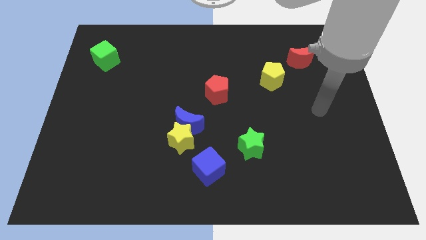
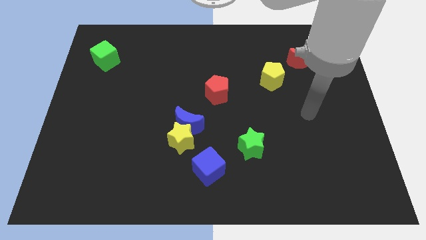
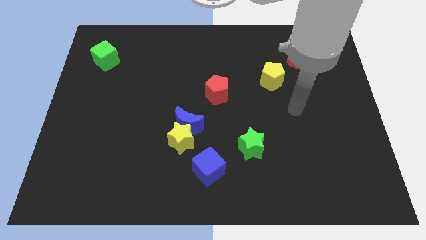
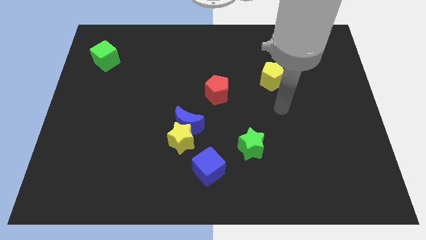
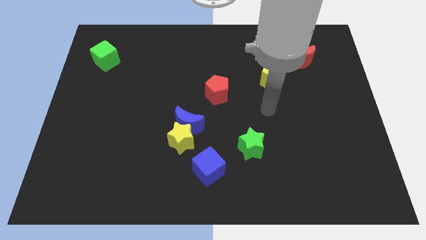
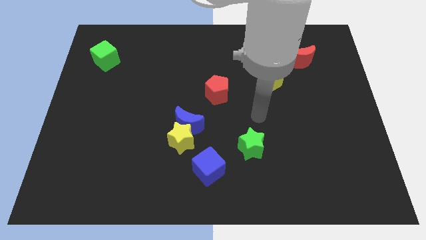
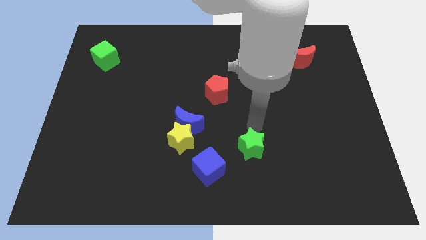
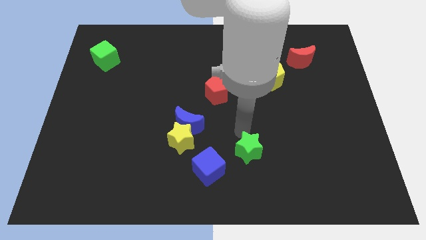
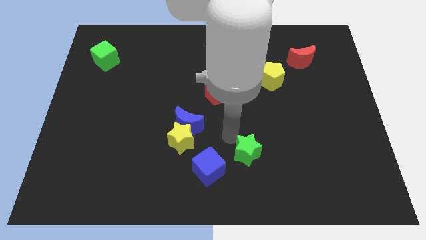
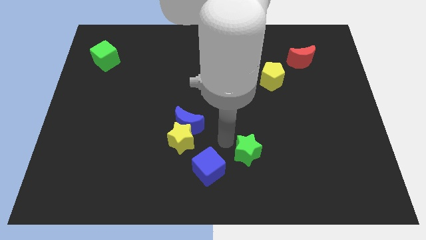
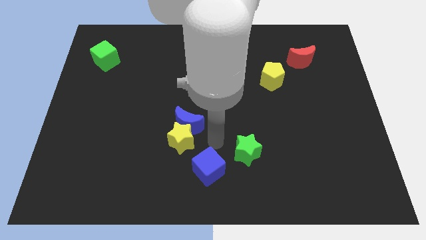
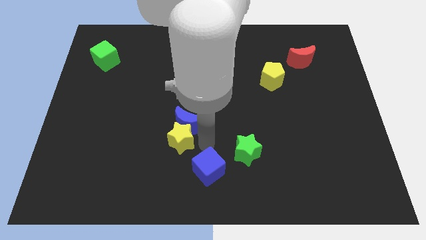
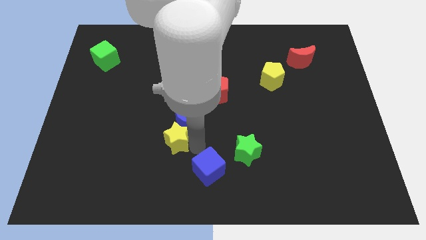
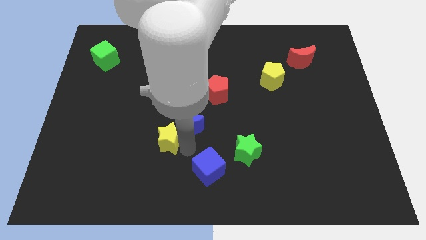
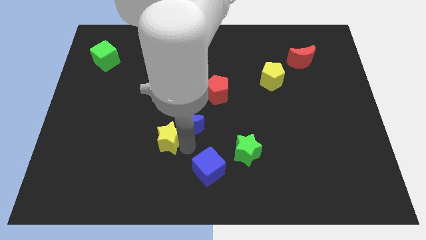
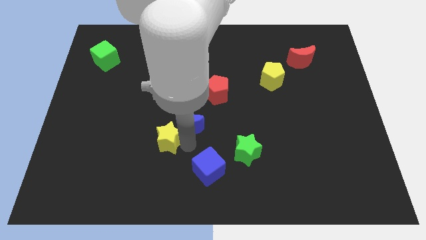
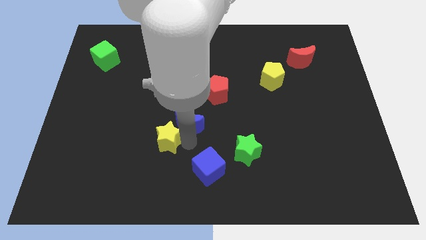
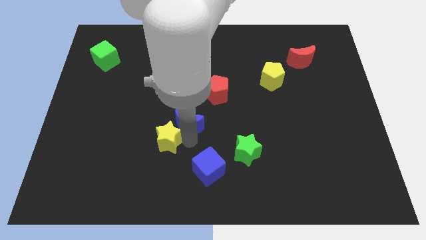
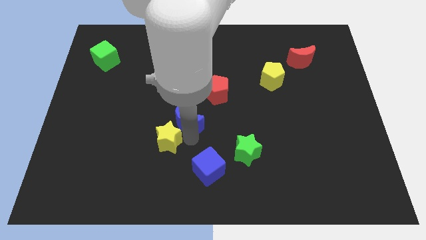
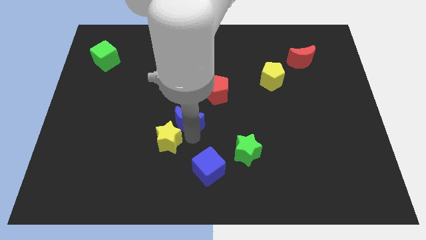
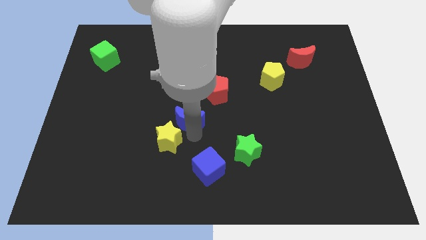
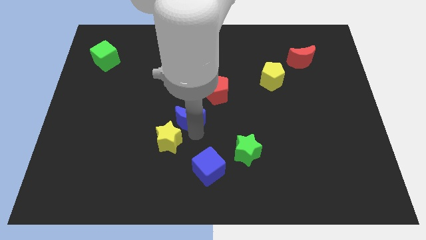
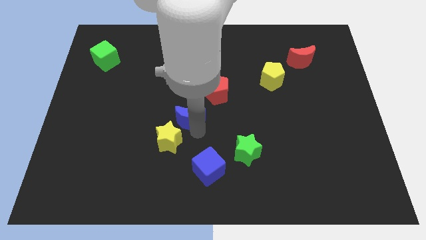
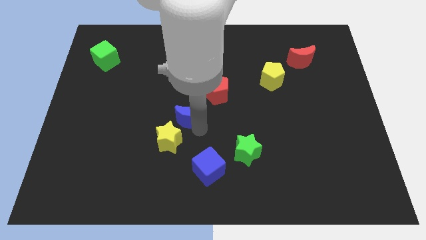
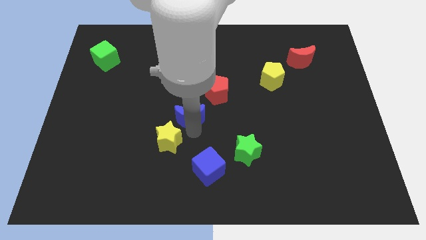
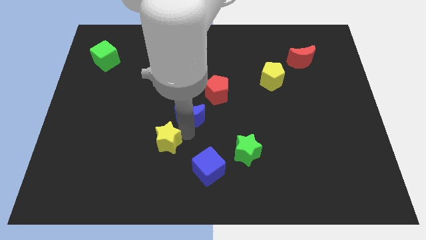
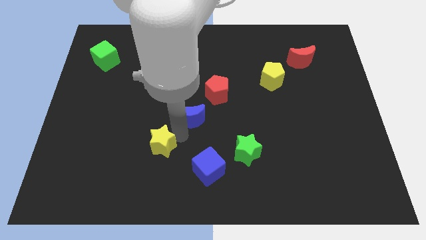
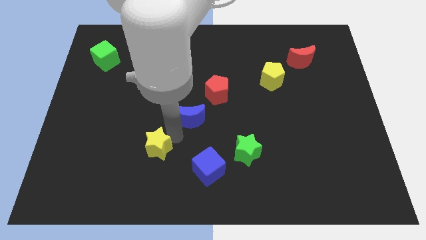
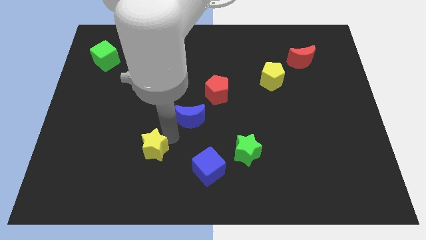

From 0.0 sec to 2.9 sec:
pull the blue moon apart from the yellow star

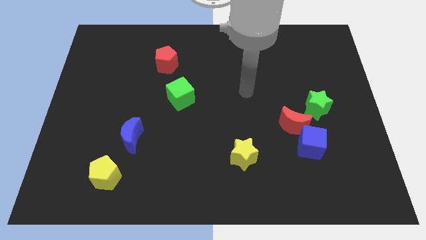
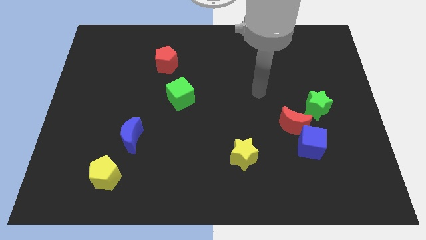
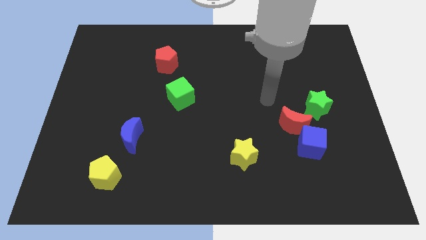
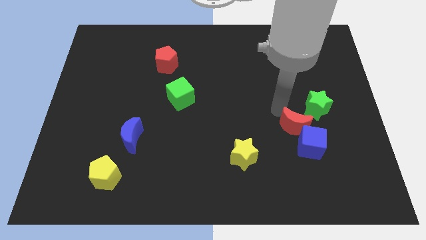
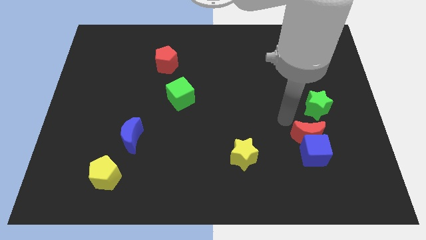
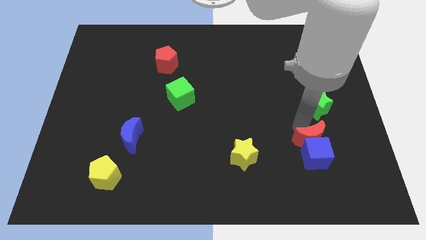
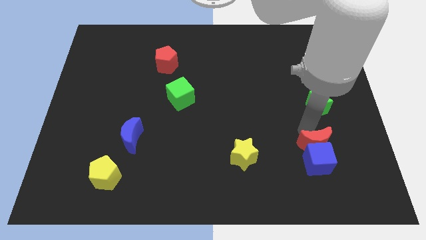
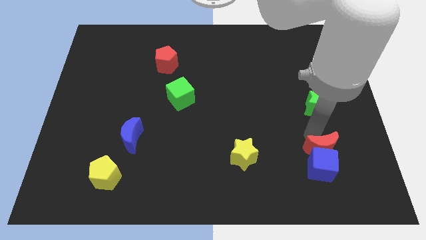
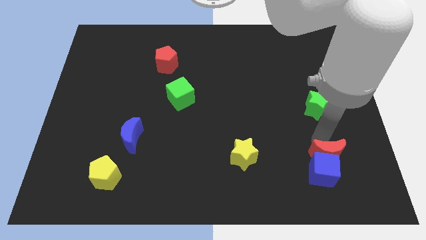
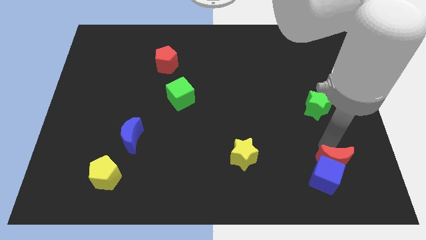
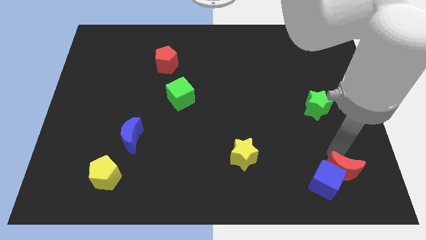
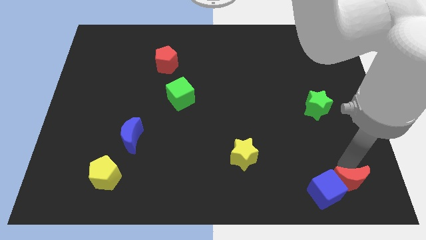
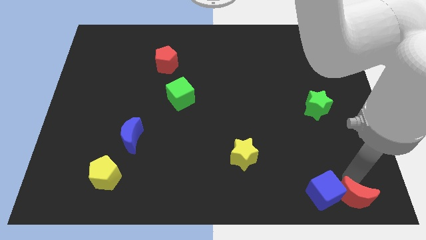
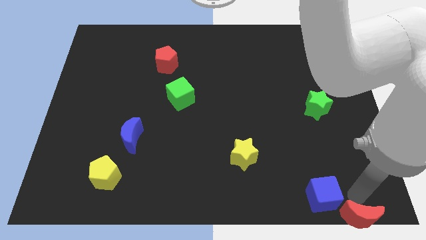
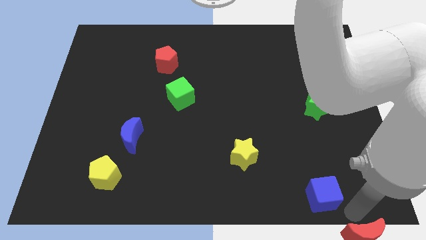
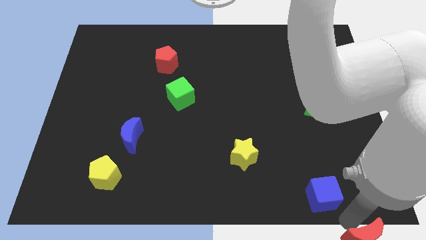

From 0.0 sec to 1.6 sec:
pull the blue cube apart from the red moon

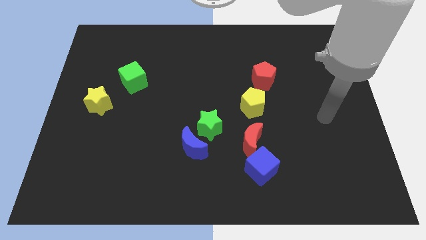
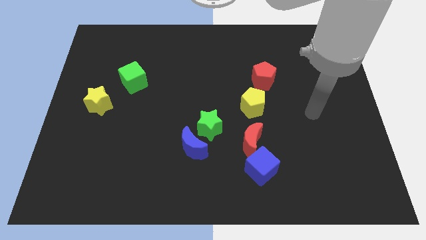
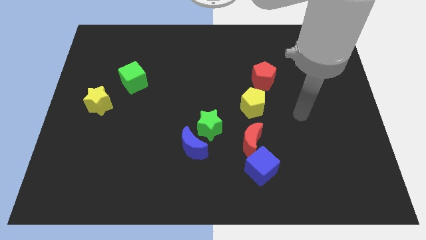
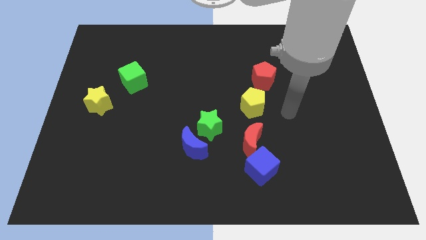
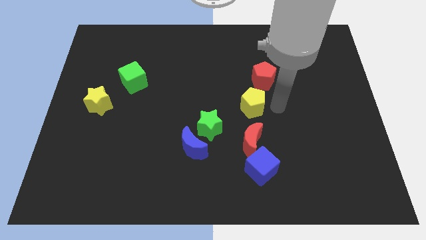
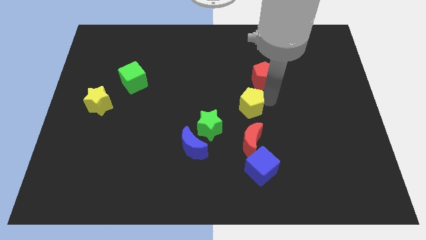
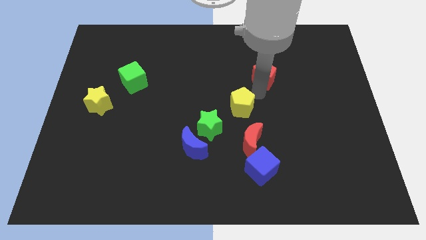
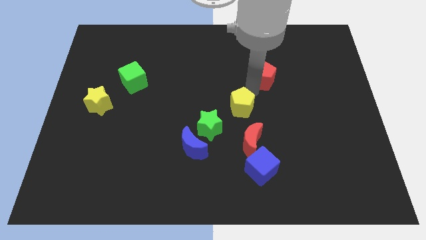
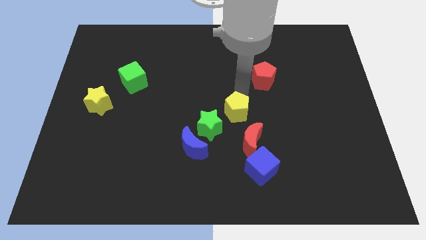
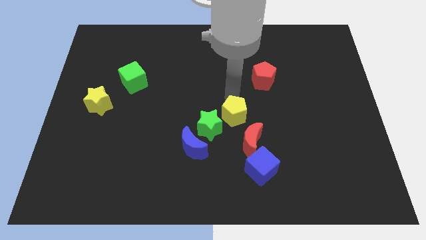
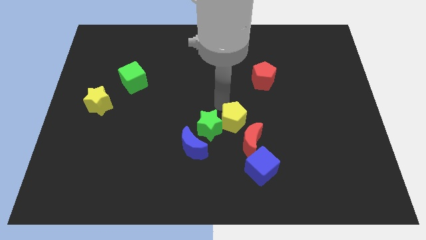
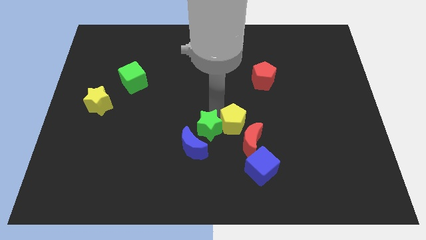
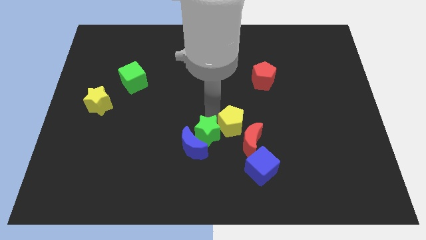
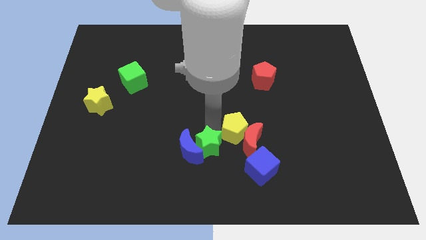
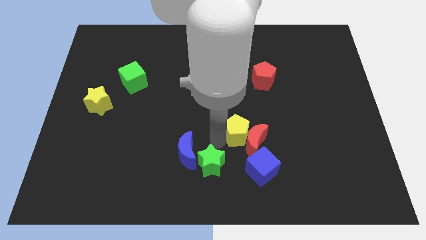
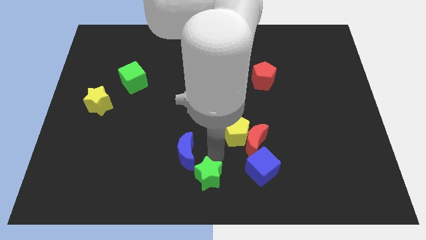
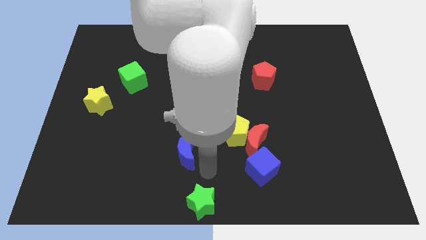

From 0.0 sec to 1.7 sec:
separate the blue moon from the green star

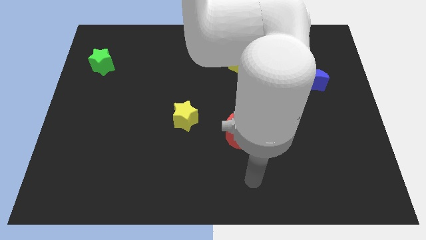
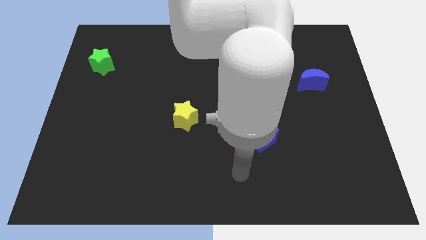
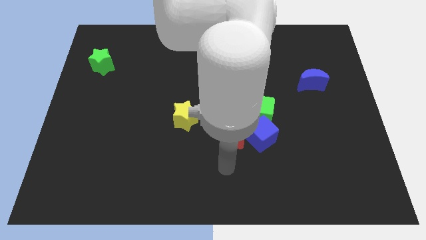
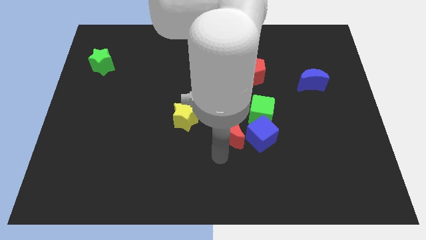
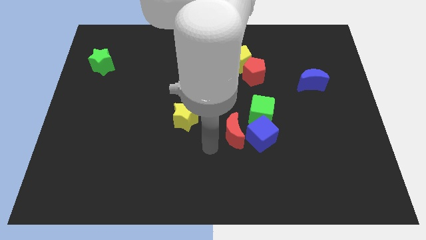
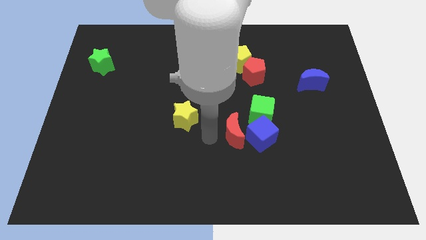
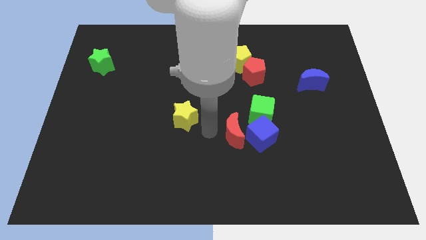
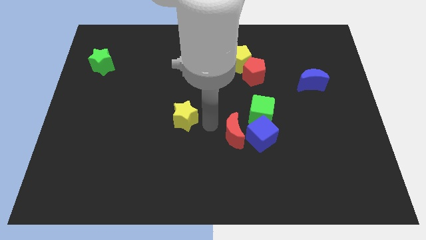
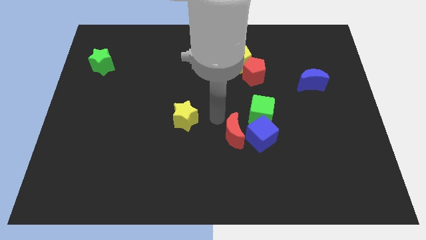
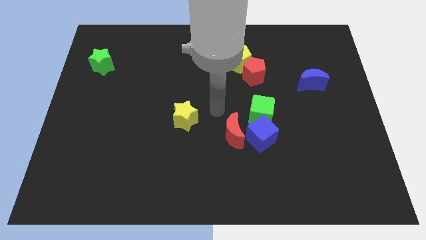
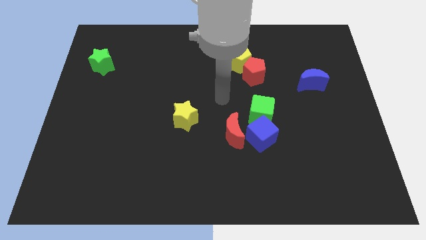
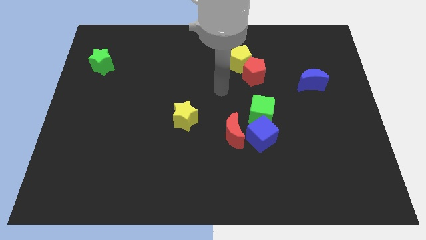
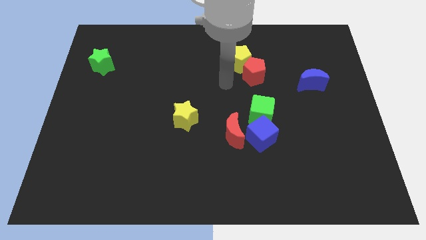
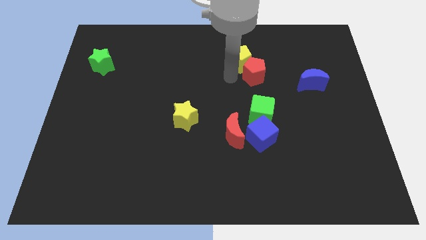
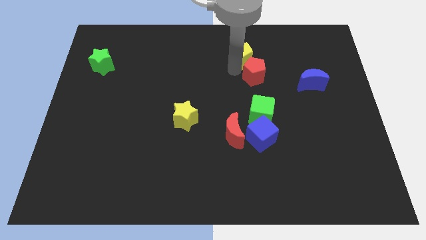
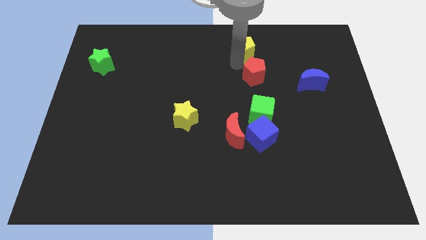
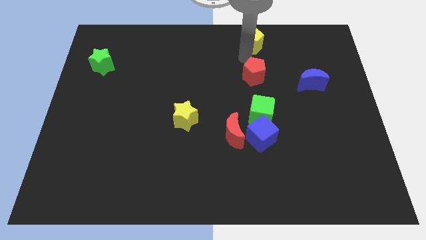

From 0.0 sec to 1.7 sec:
pull the red pentagon apart from the yellow pentagon

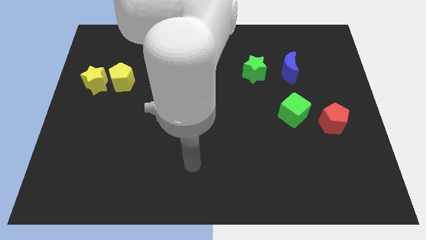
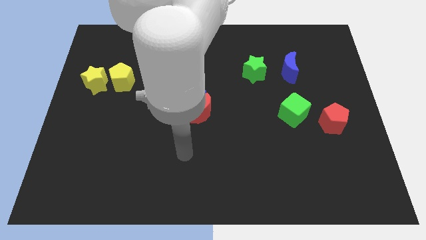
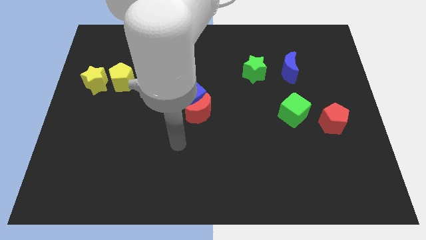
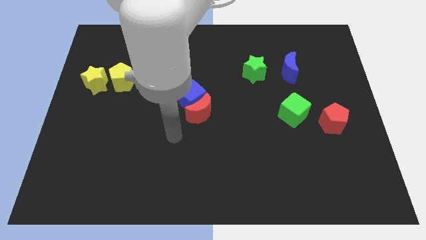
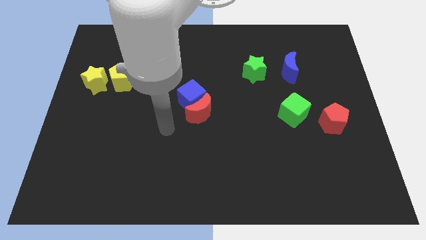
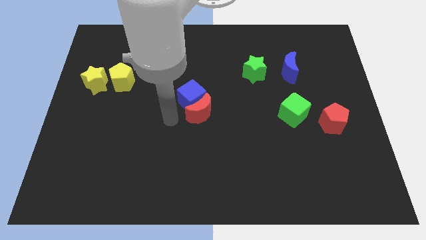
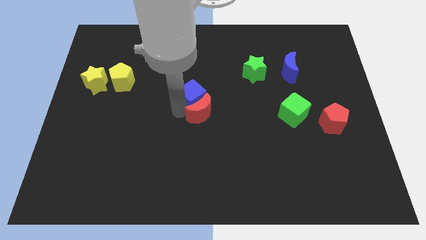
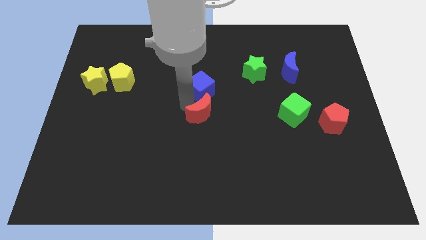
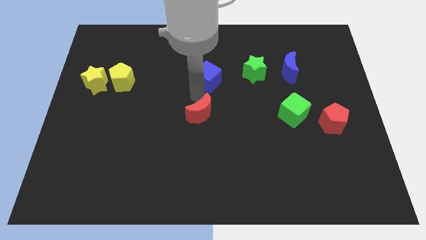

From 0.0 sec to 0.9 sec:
move the red moon away from the blue cube

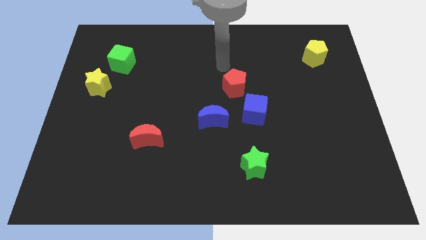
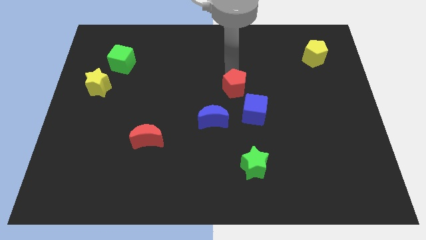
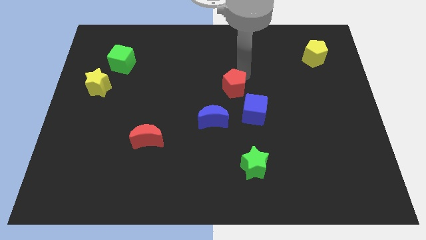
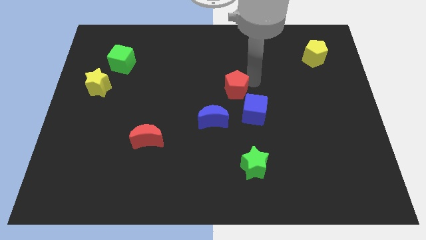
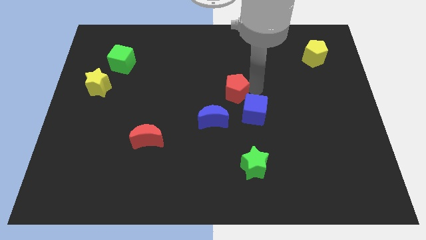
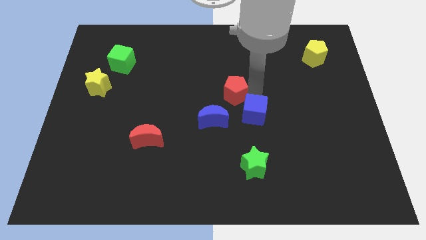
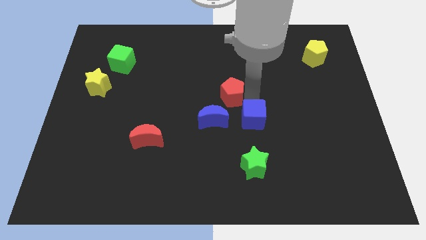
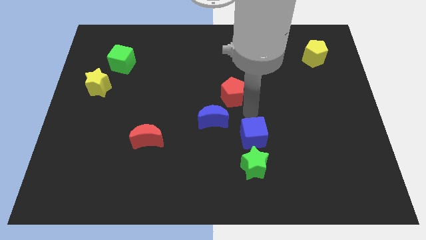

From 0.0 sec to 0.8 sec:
move the red pentagon away from the blue cube
